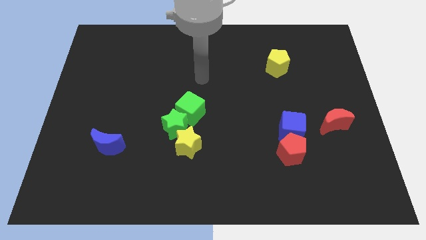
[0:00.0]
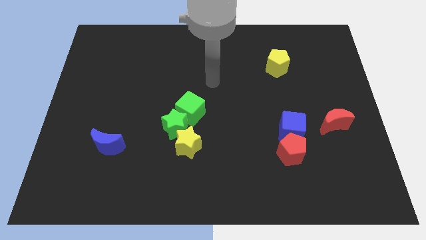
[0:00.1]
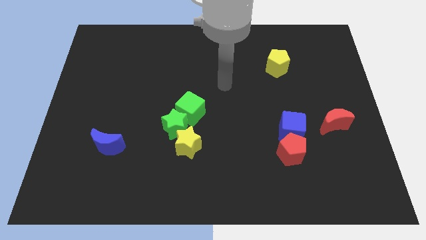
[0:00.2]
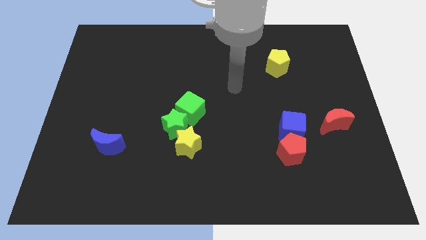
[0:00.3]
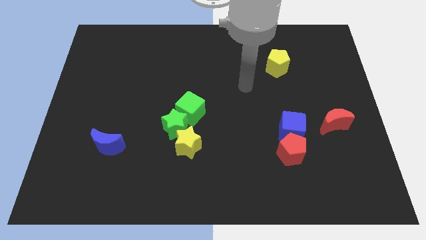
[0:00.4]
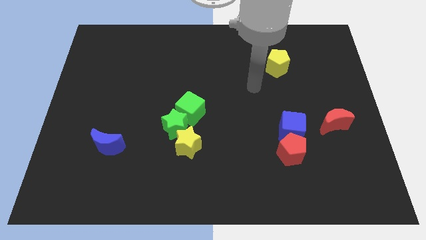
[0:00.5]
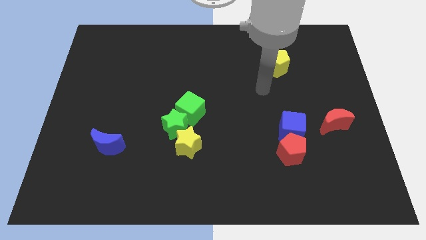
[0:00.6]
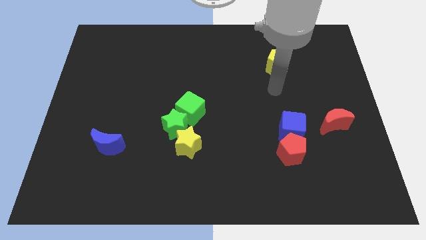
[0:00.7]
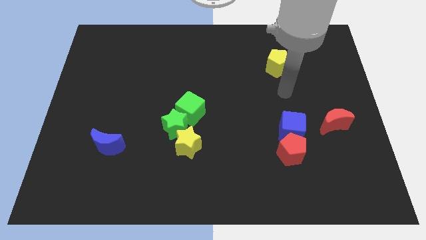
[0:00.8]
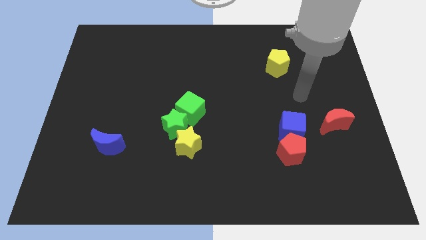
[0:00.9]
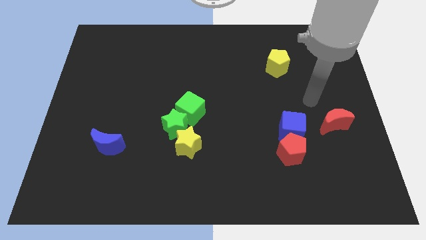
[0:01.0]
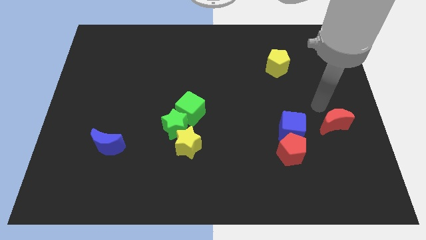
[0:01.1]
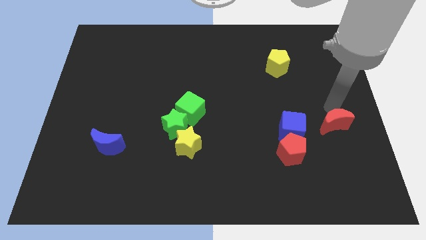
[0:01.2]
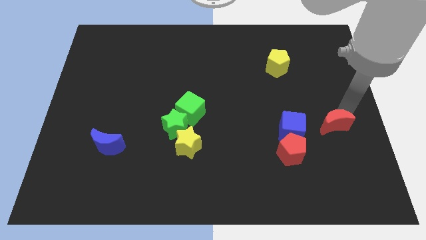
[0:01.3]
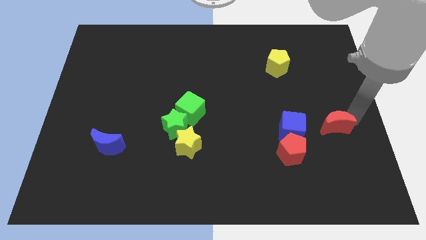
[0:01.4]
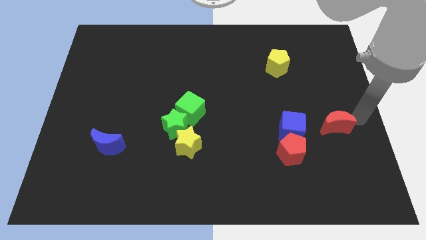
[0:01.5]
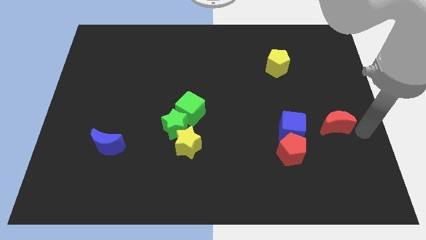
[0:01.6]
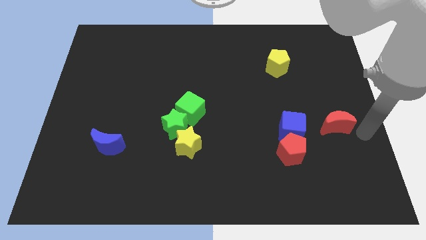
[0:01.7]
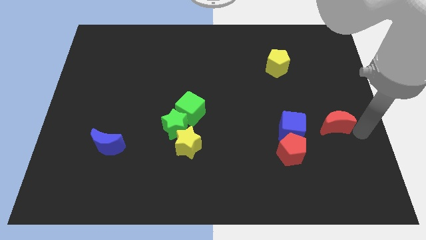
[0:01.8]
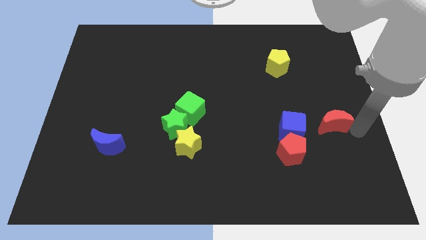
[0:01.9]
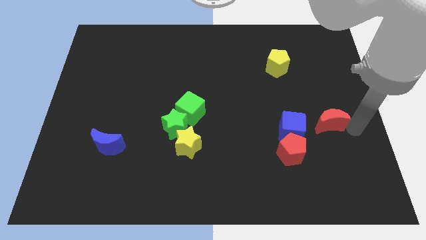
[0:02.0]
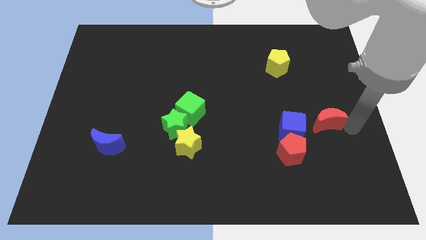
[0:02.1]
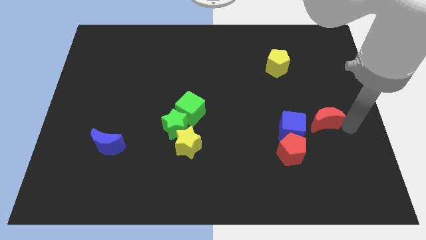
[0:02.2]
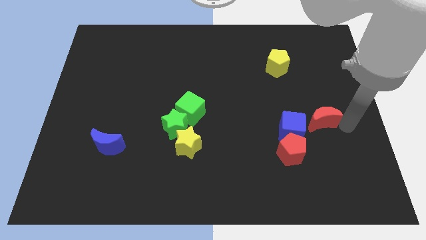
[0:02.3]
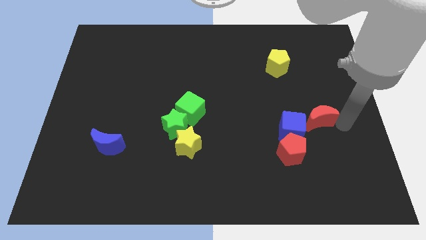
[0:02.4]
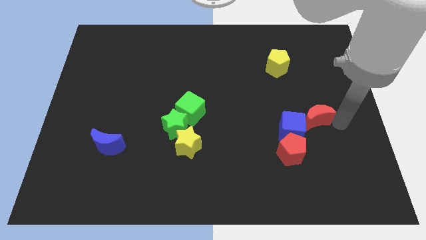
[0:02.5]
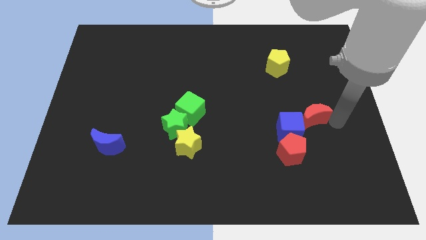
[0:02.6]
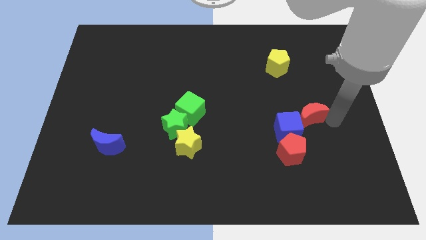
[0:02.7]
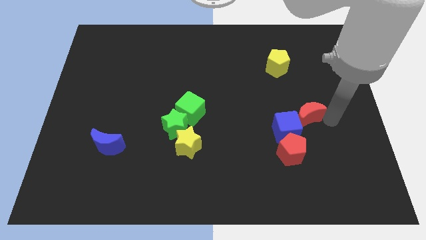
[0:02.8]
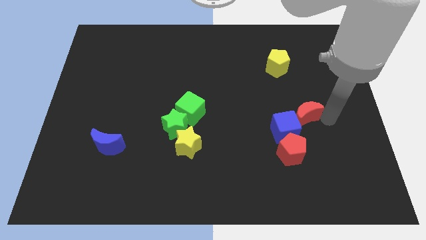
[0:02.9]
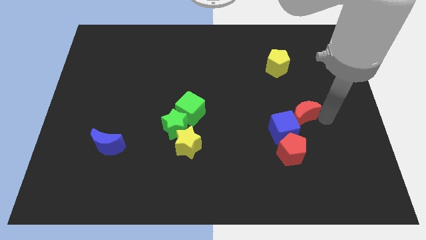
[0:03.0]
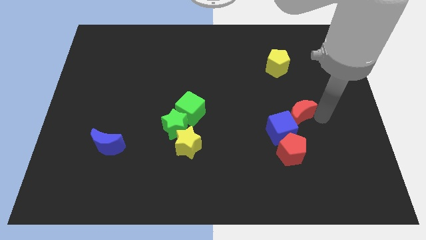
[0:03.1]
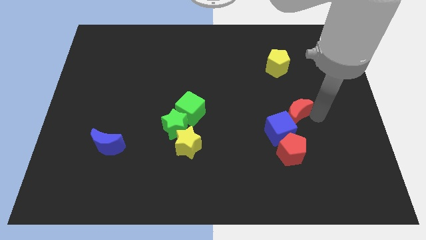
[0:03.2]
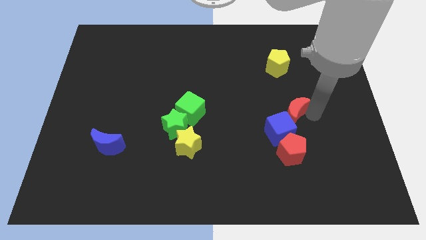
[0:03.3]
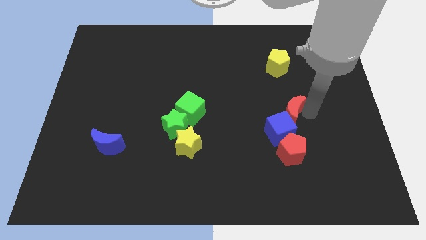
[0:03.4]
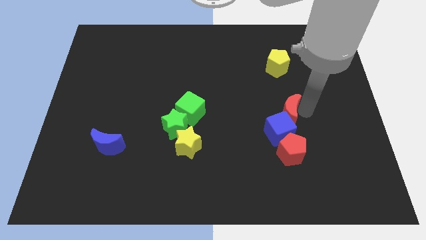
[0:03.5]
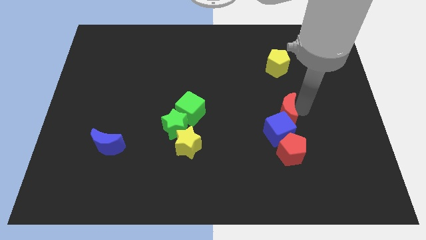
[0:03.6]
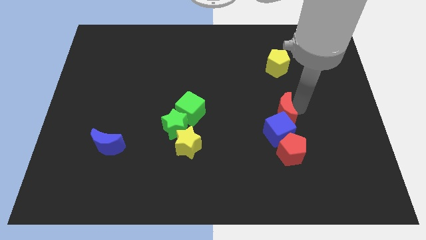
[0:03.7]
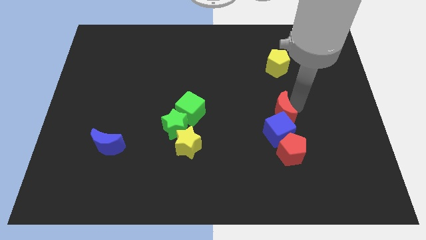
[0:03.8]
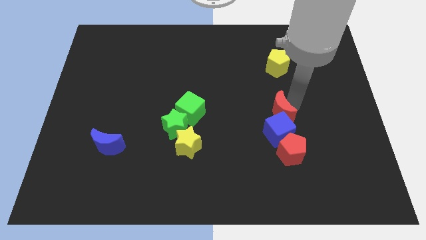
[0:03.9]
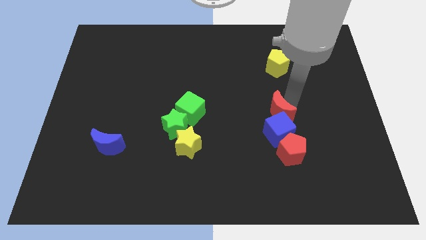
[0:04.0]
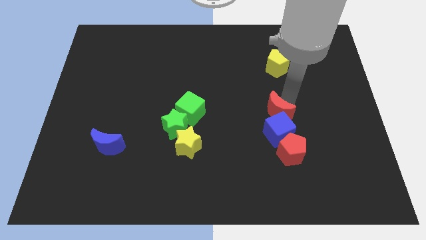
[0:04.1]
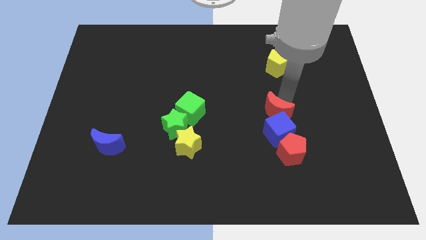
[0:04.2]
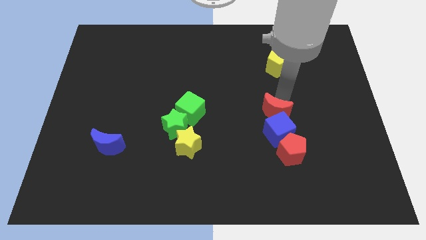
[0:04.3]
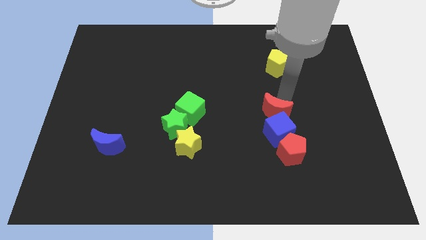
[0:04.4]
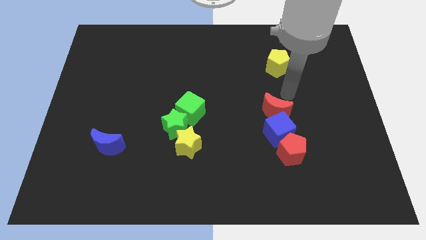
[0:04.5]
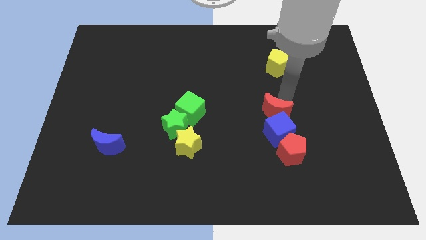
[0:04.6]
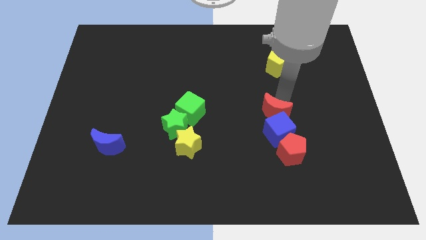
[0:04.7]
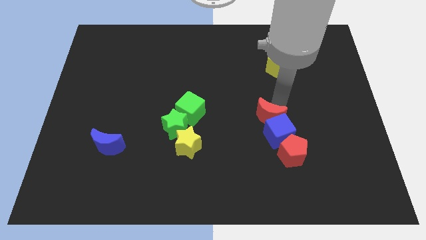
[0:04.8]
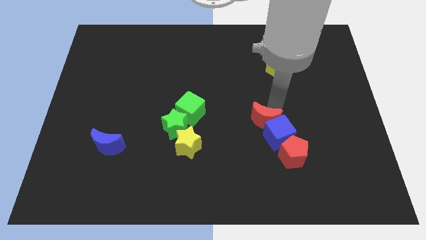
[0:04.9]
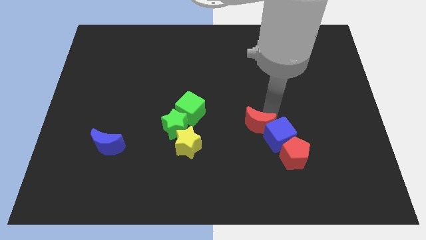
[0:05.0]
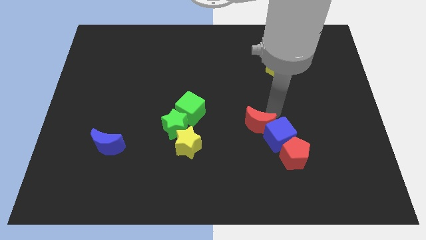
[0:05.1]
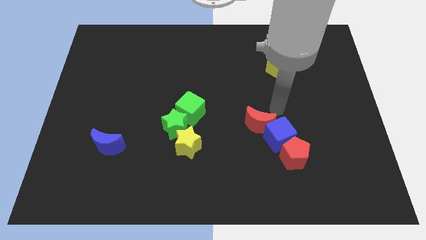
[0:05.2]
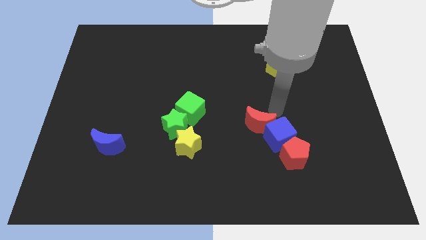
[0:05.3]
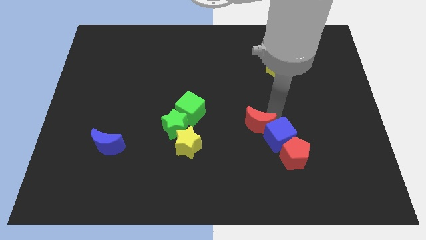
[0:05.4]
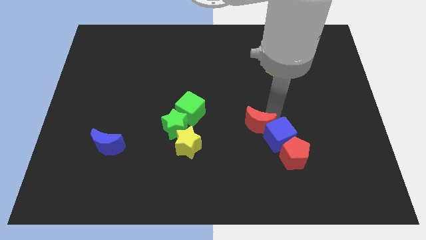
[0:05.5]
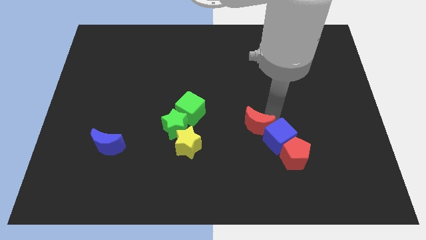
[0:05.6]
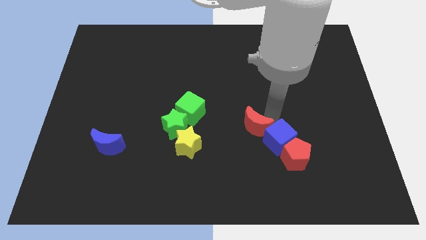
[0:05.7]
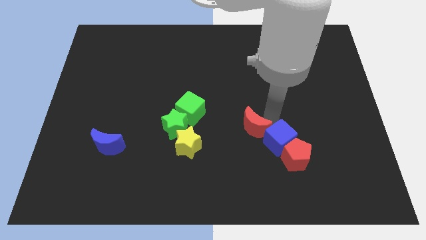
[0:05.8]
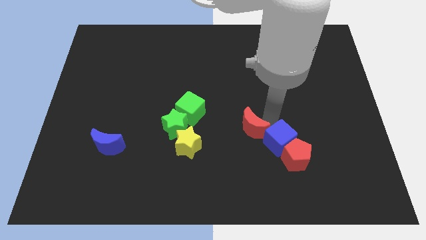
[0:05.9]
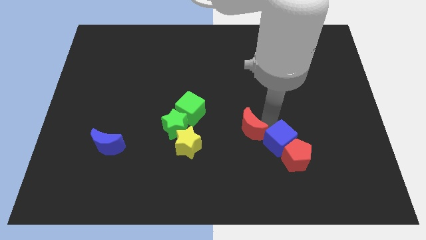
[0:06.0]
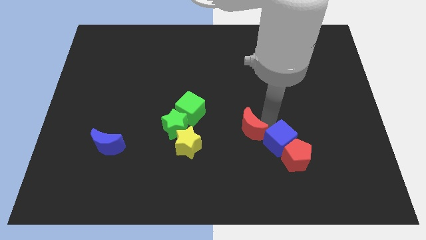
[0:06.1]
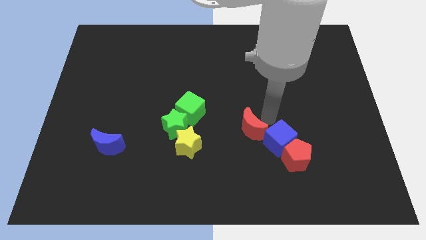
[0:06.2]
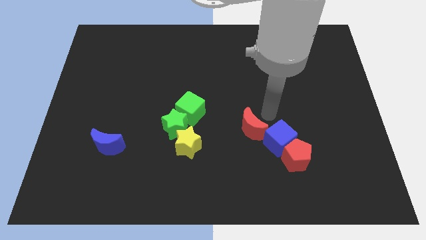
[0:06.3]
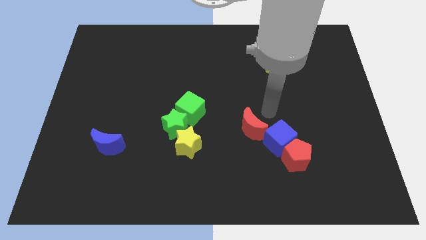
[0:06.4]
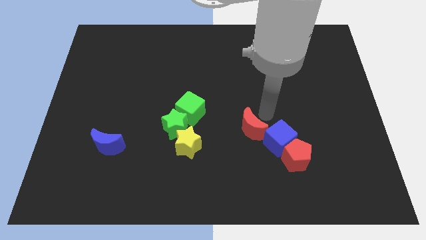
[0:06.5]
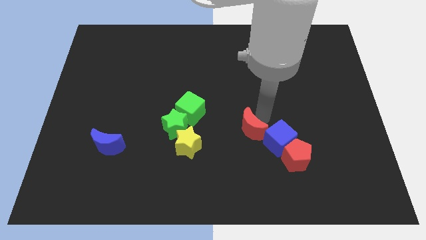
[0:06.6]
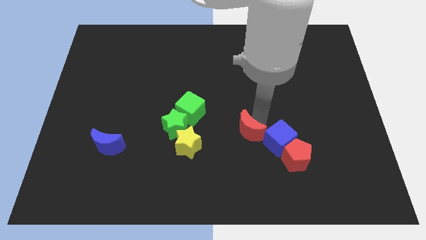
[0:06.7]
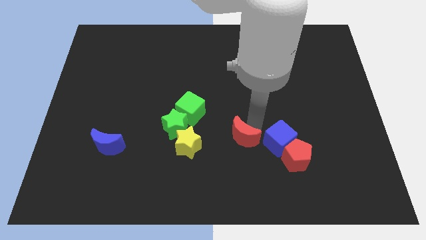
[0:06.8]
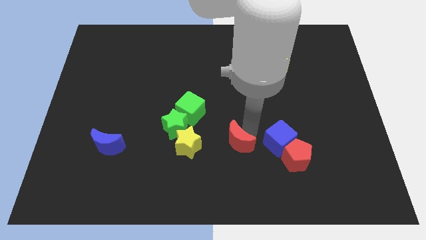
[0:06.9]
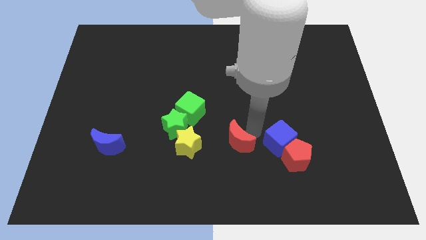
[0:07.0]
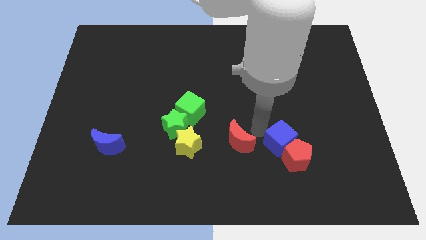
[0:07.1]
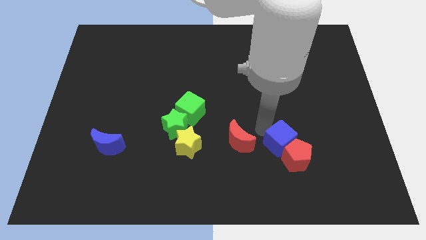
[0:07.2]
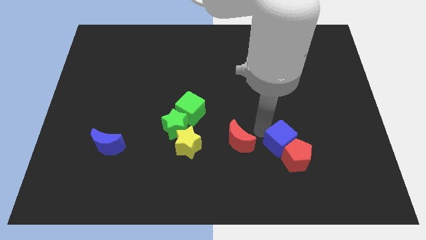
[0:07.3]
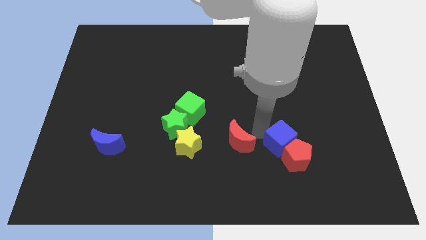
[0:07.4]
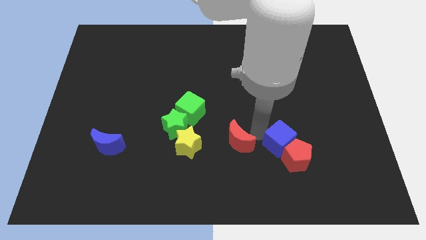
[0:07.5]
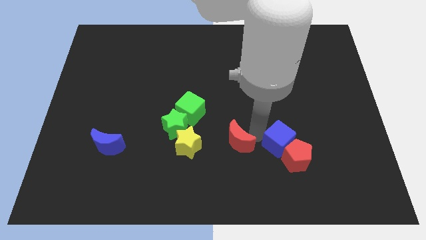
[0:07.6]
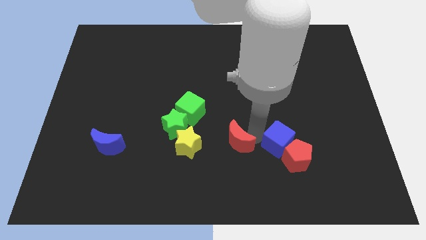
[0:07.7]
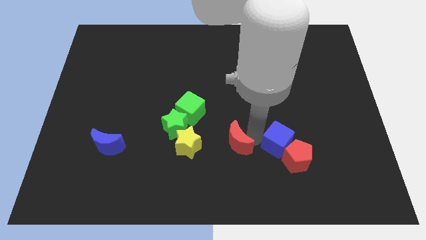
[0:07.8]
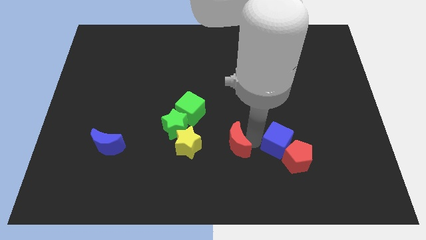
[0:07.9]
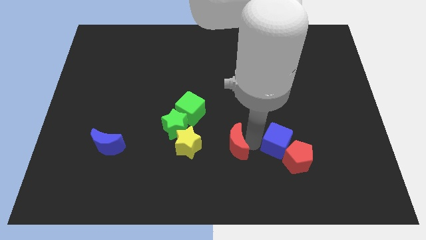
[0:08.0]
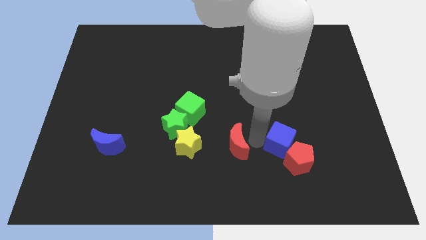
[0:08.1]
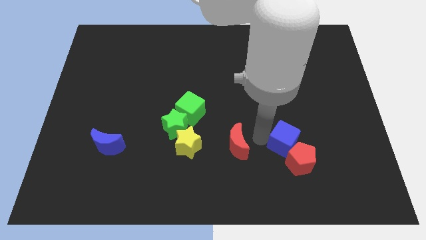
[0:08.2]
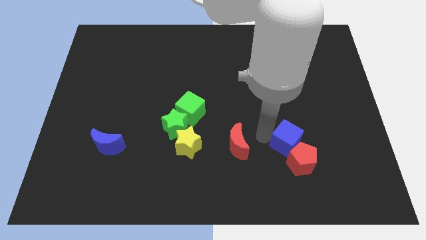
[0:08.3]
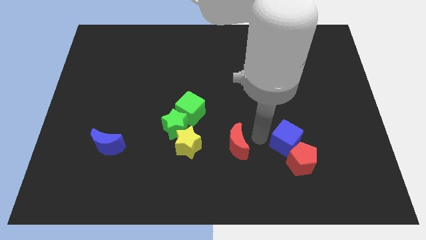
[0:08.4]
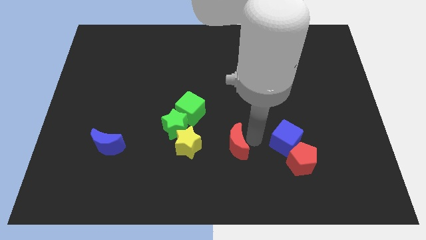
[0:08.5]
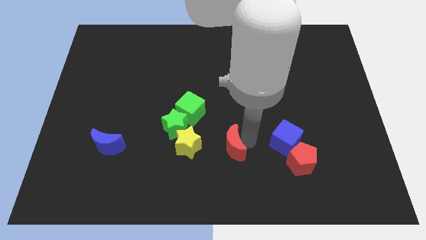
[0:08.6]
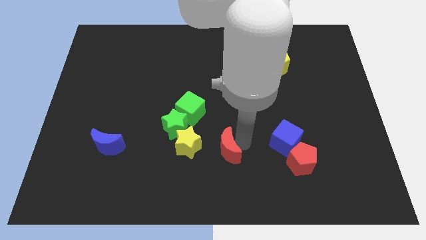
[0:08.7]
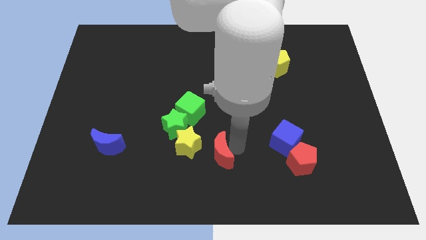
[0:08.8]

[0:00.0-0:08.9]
slide the red moon to the bottom right side of the green star
